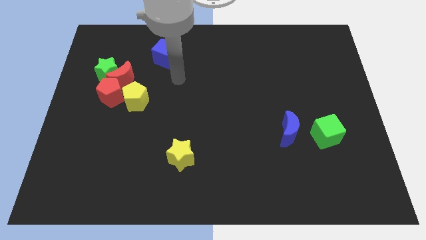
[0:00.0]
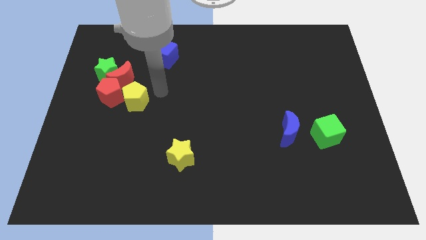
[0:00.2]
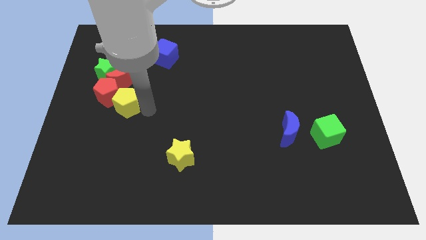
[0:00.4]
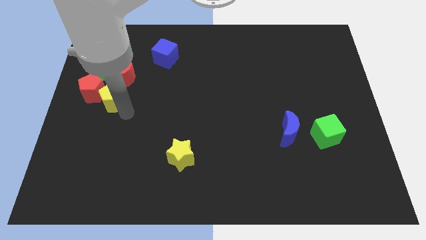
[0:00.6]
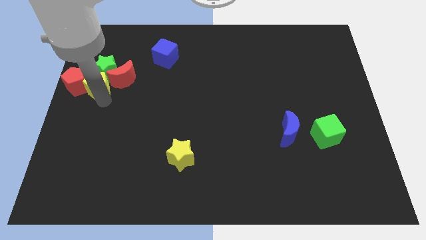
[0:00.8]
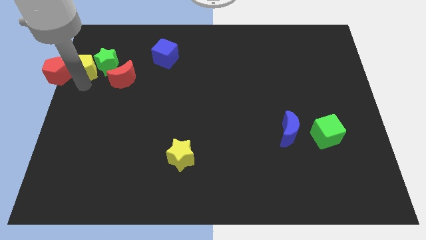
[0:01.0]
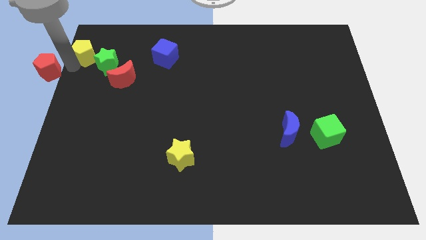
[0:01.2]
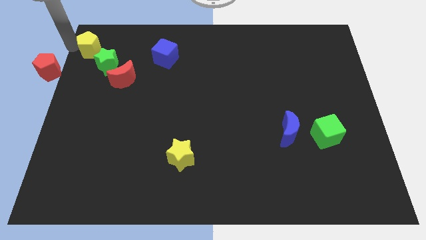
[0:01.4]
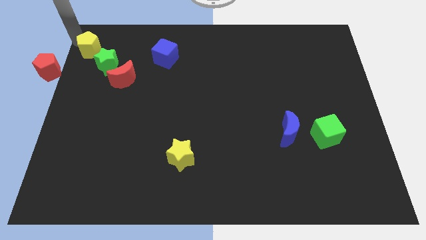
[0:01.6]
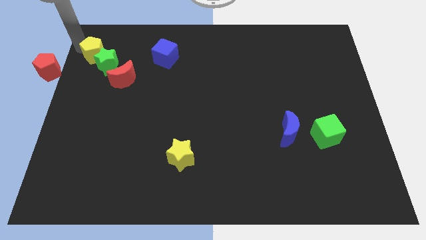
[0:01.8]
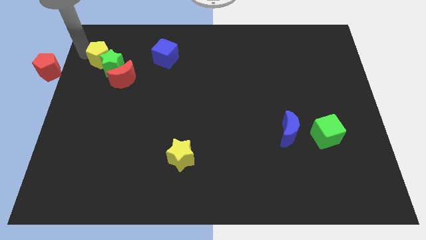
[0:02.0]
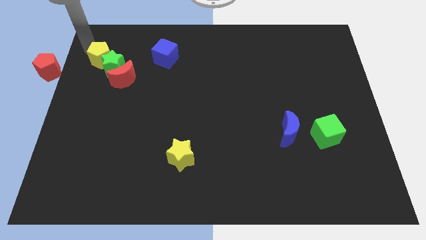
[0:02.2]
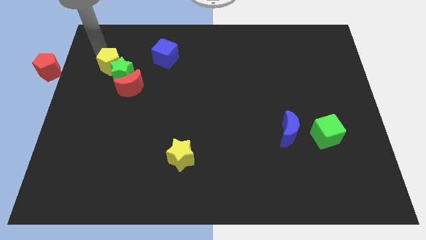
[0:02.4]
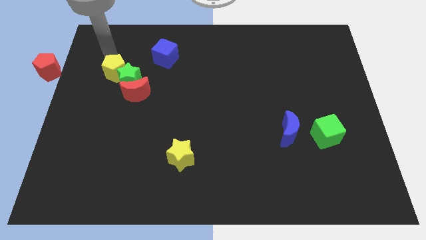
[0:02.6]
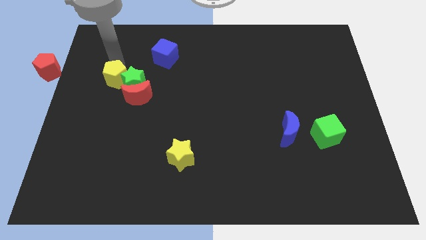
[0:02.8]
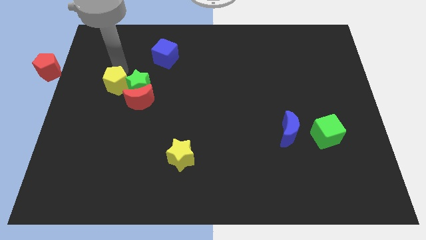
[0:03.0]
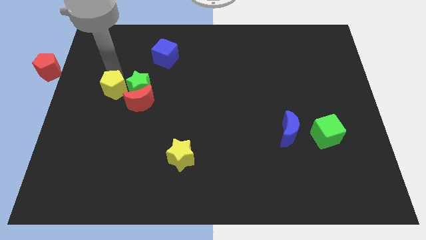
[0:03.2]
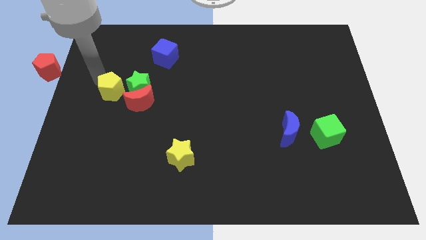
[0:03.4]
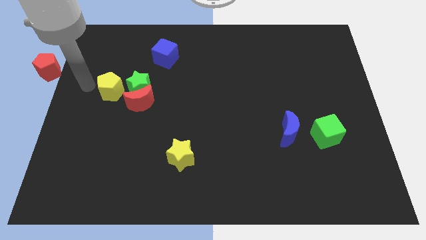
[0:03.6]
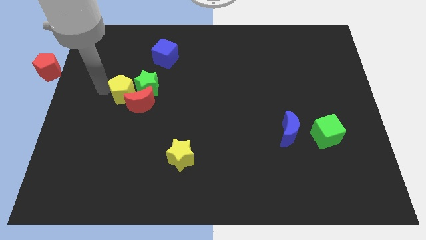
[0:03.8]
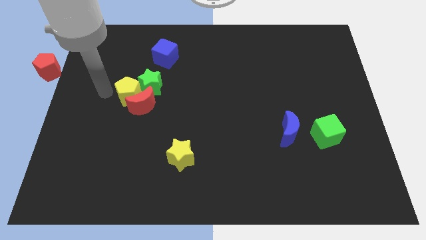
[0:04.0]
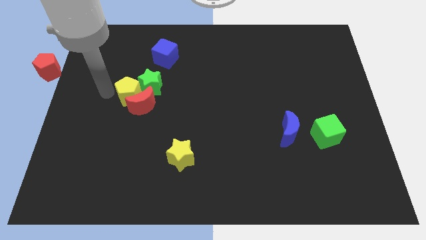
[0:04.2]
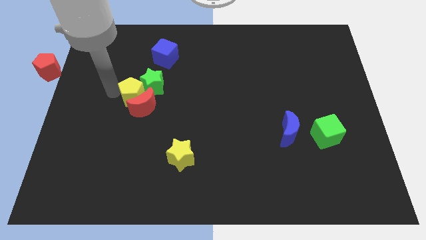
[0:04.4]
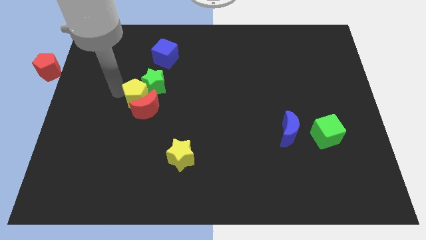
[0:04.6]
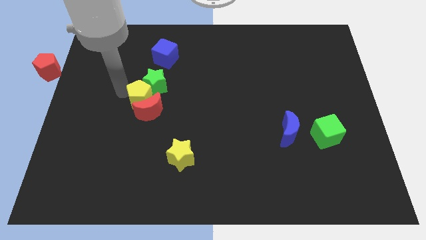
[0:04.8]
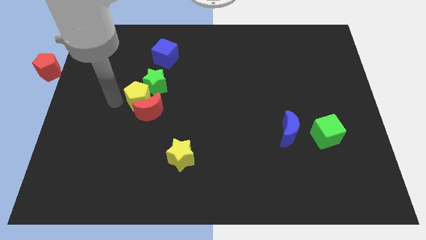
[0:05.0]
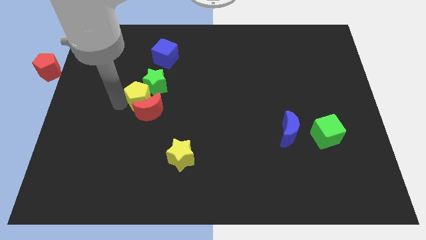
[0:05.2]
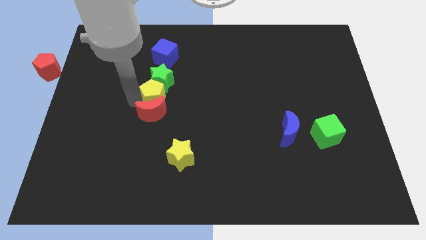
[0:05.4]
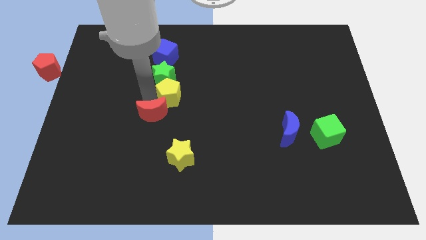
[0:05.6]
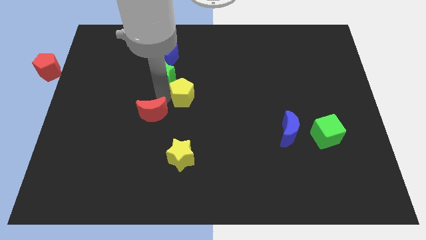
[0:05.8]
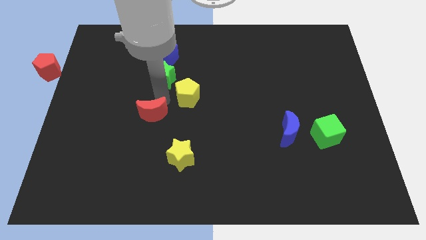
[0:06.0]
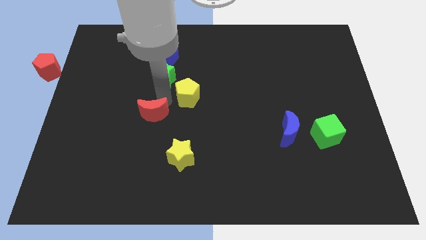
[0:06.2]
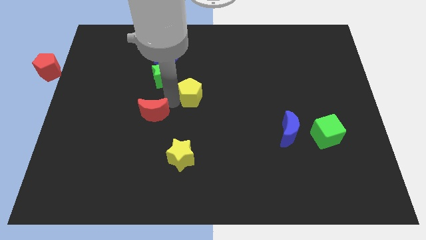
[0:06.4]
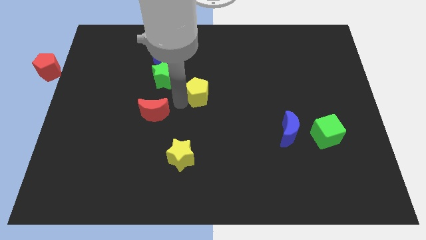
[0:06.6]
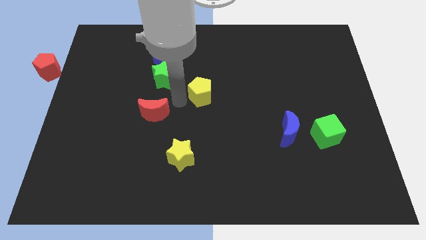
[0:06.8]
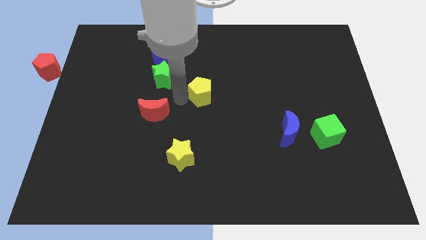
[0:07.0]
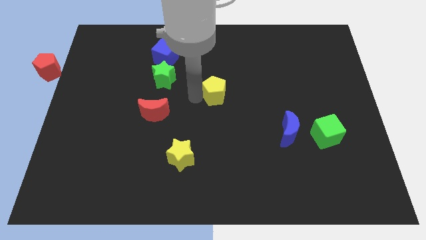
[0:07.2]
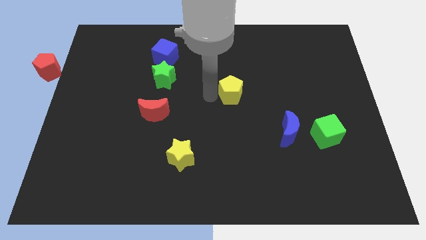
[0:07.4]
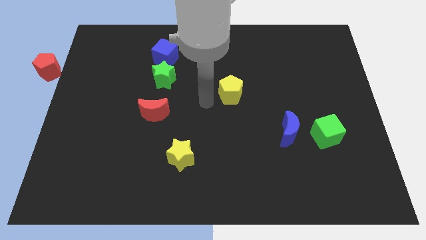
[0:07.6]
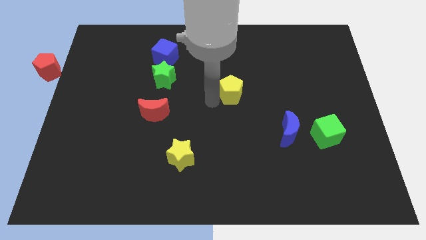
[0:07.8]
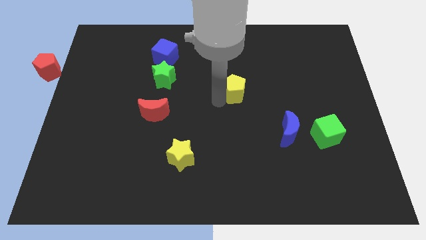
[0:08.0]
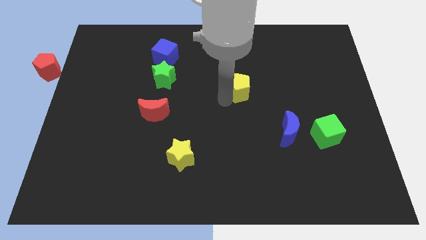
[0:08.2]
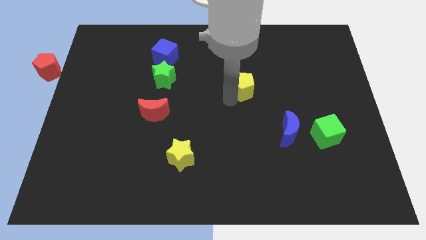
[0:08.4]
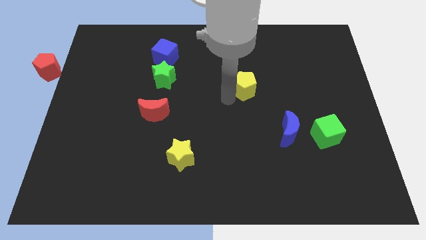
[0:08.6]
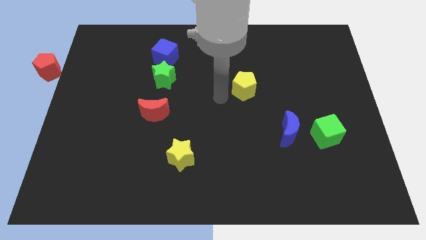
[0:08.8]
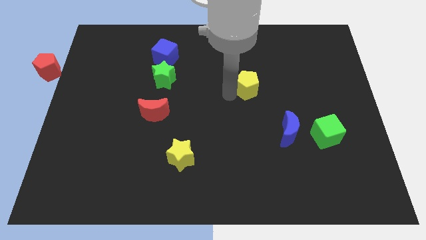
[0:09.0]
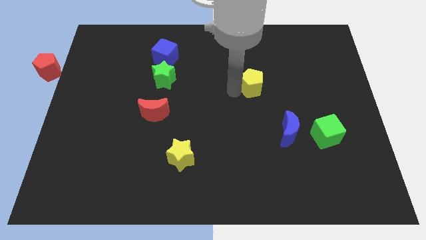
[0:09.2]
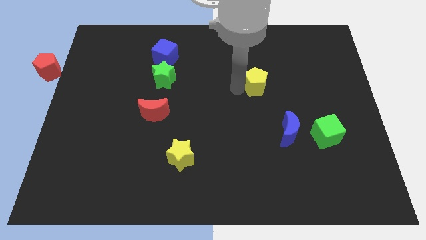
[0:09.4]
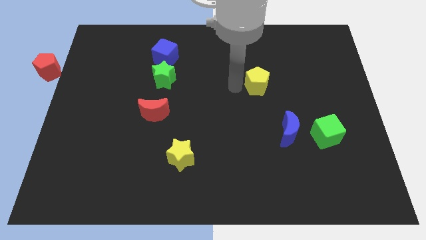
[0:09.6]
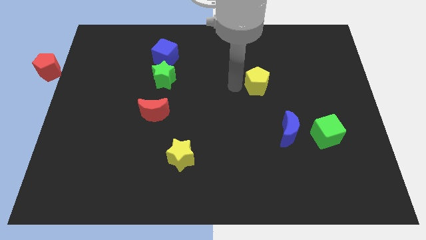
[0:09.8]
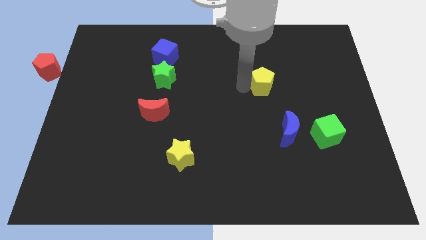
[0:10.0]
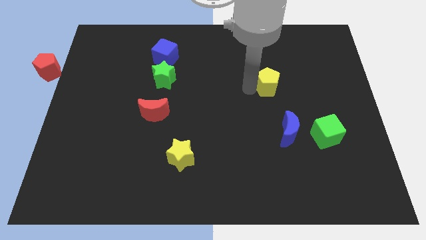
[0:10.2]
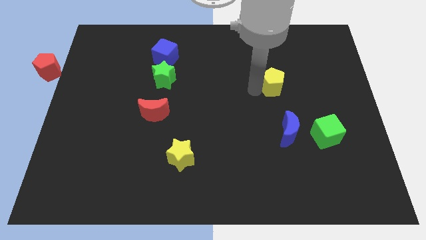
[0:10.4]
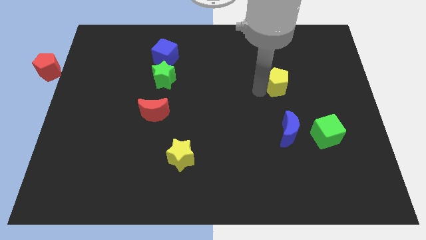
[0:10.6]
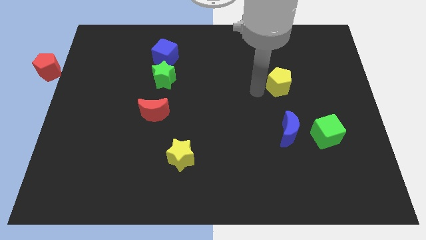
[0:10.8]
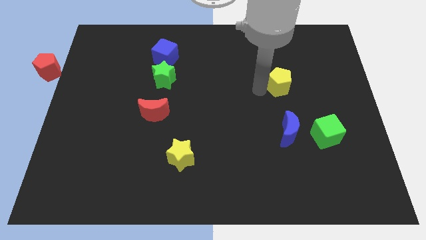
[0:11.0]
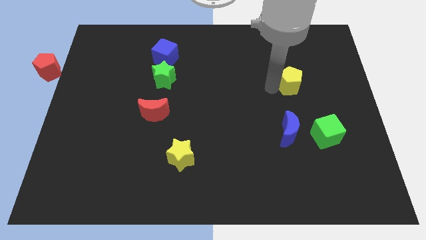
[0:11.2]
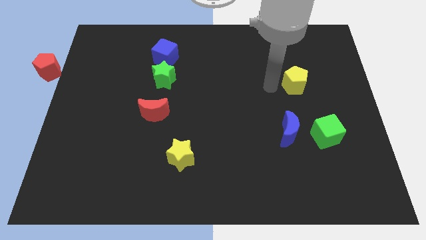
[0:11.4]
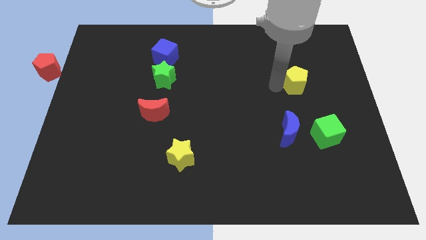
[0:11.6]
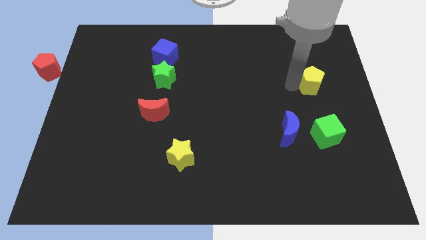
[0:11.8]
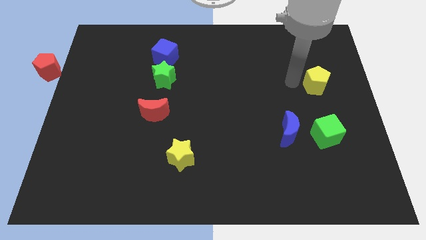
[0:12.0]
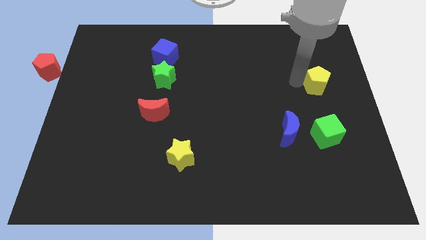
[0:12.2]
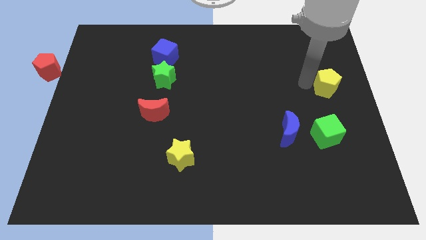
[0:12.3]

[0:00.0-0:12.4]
put the yellow pentagon to the center right
